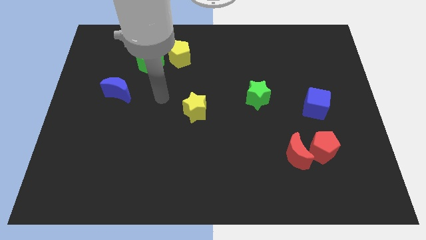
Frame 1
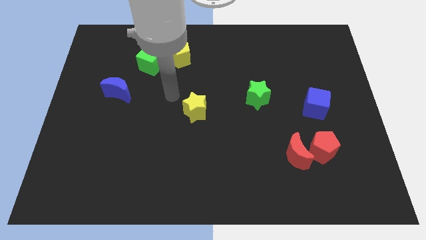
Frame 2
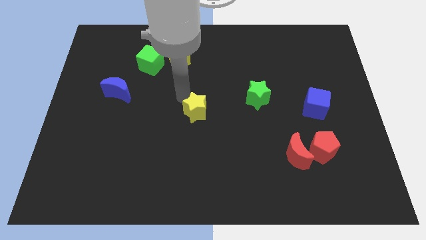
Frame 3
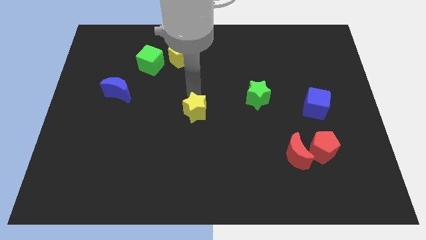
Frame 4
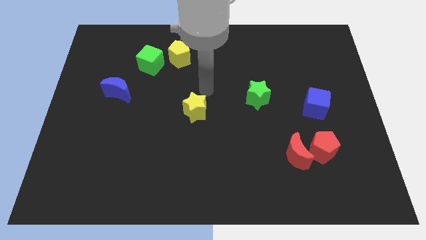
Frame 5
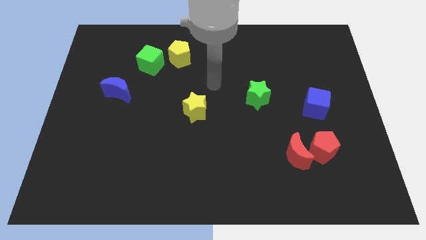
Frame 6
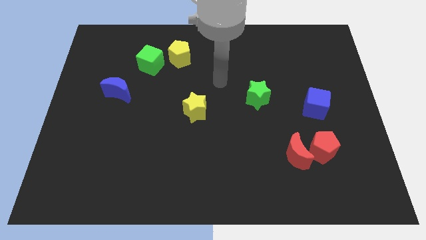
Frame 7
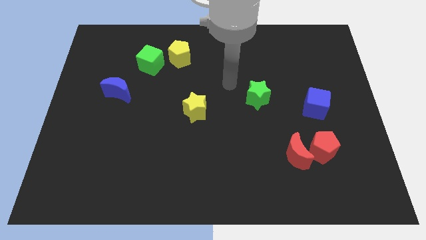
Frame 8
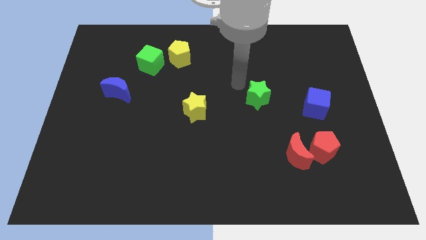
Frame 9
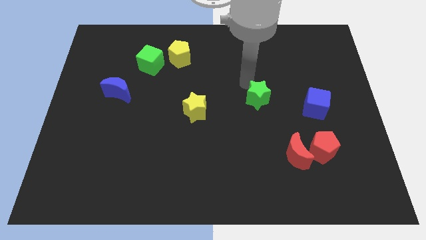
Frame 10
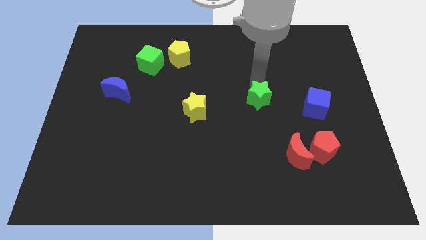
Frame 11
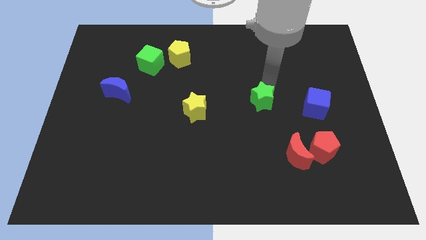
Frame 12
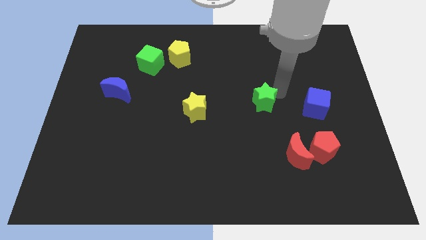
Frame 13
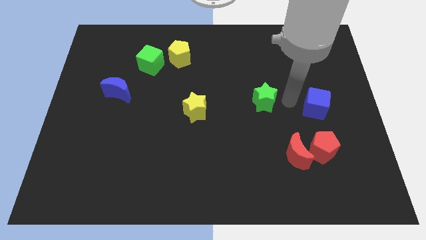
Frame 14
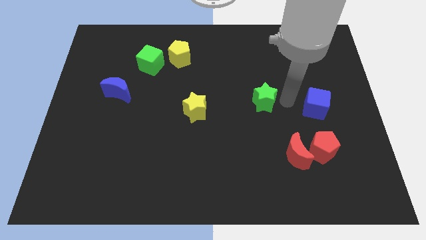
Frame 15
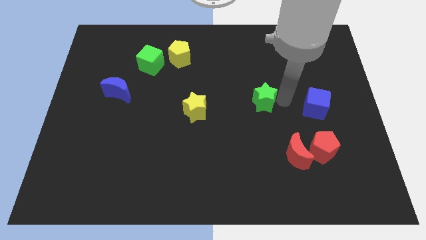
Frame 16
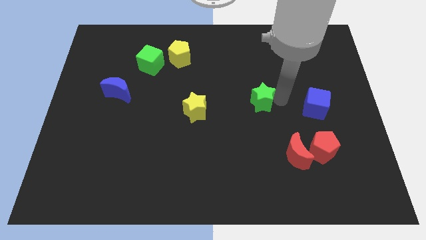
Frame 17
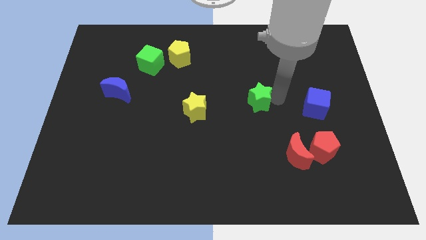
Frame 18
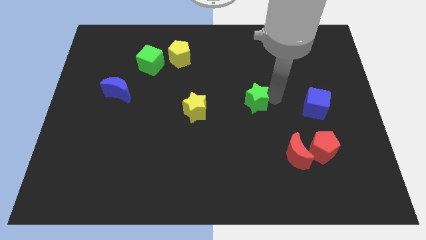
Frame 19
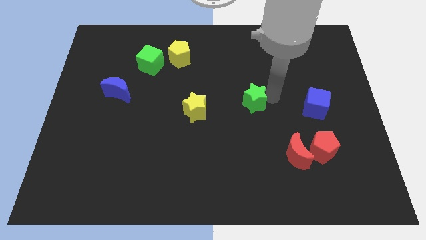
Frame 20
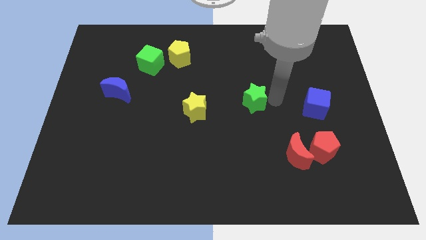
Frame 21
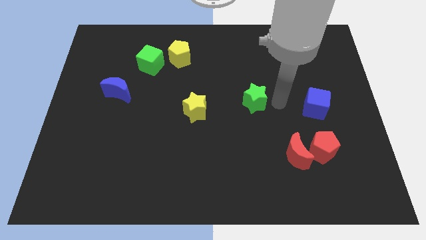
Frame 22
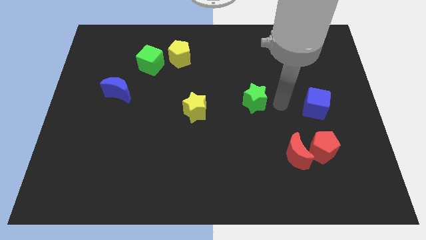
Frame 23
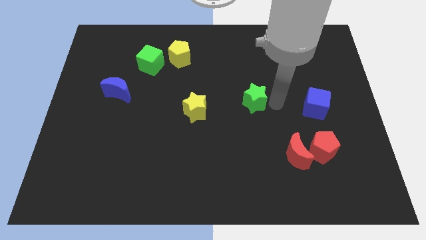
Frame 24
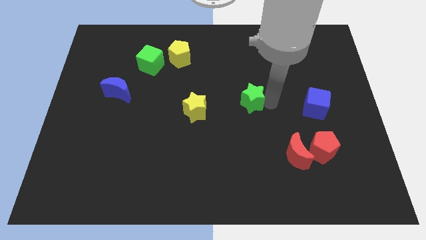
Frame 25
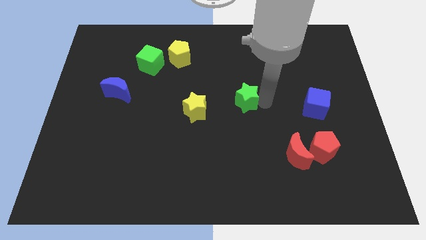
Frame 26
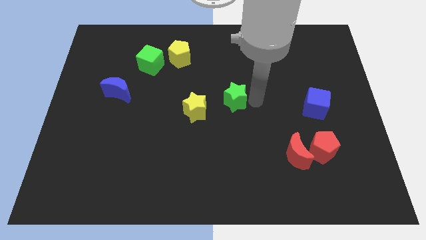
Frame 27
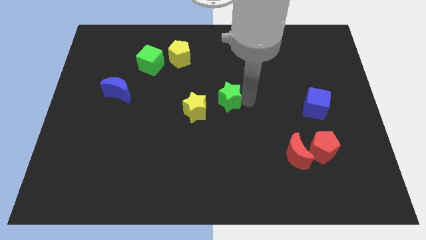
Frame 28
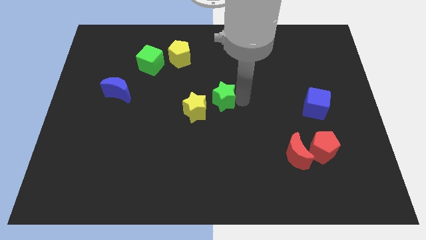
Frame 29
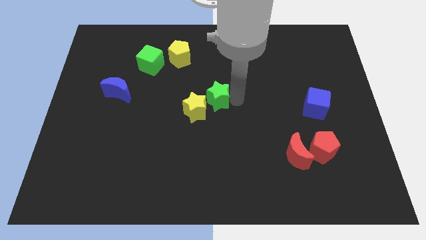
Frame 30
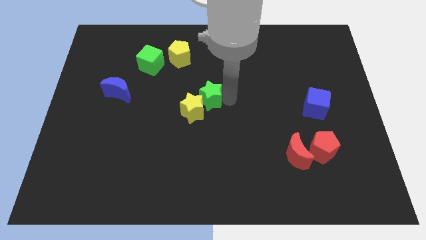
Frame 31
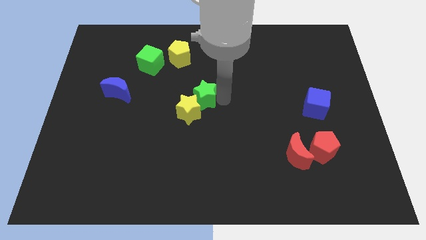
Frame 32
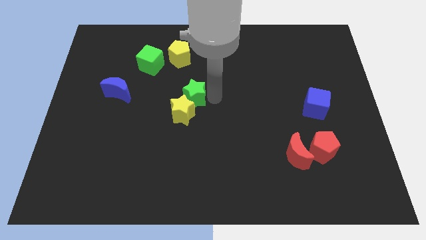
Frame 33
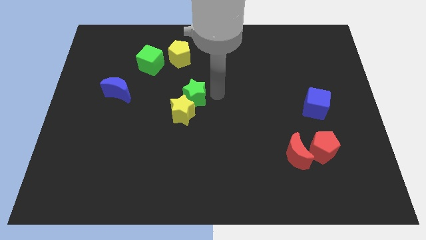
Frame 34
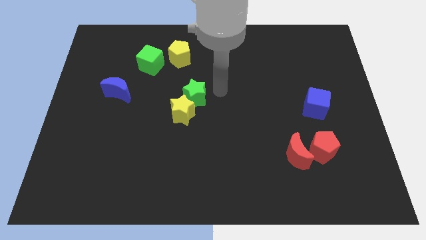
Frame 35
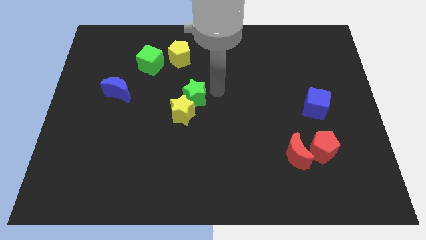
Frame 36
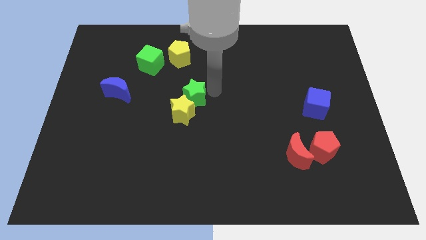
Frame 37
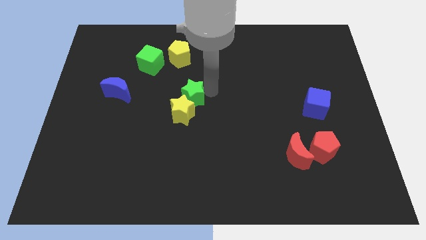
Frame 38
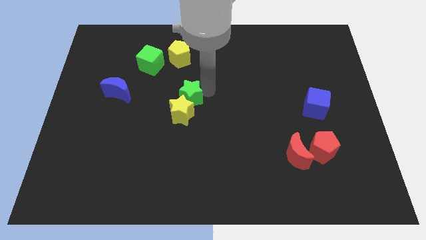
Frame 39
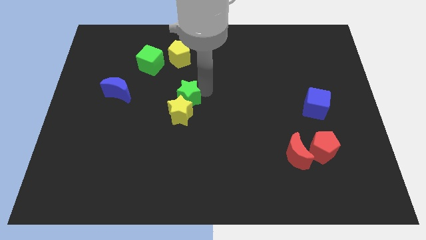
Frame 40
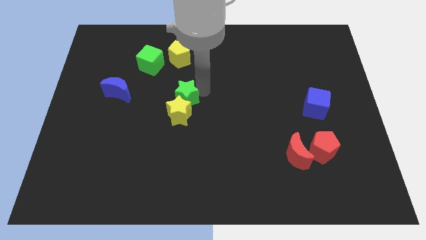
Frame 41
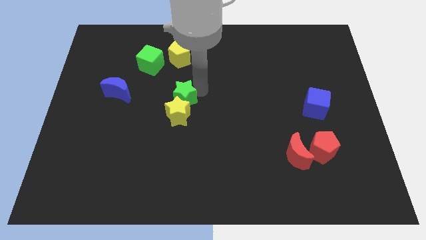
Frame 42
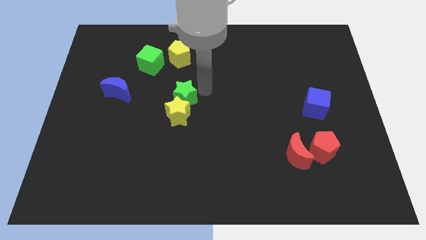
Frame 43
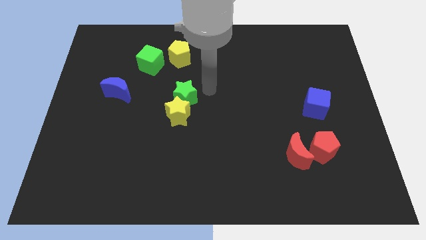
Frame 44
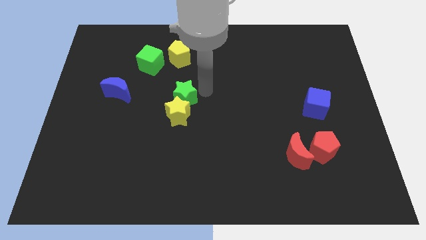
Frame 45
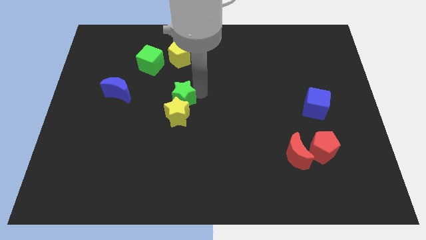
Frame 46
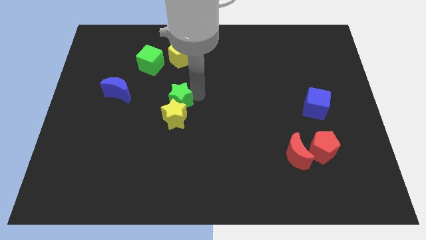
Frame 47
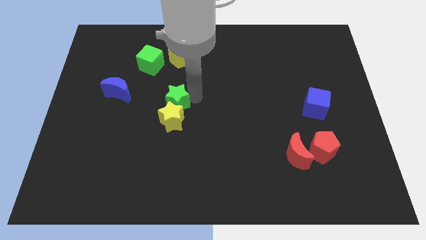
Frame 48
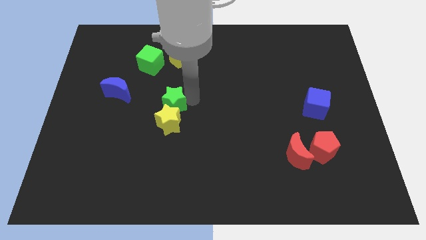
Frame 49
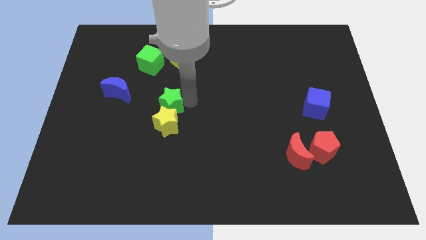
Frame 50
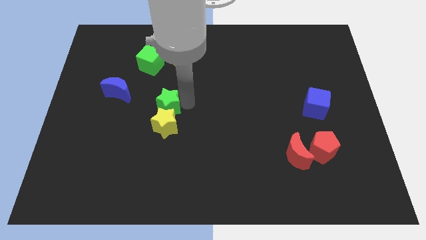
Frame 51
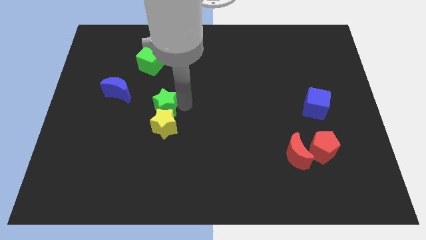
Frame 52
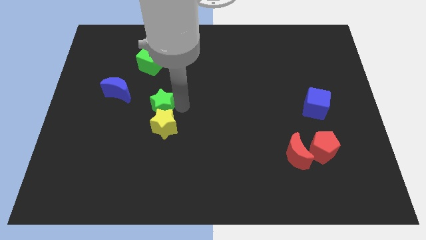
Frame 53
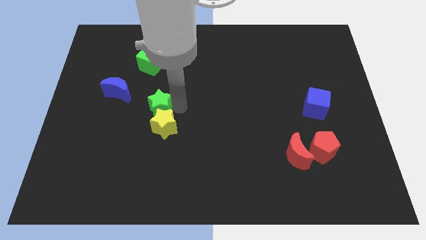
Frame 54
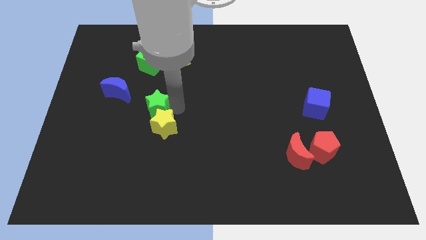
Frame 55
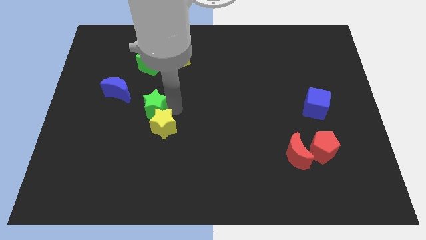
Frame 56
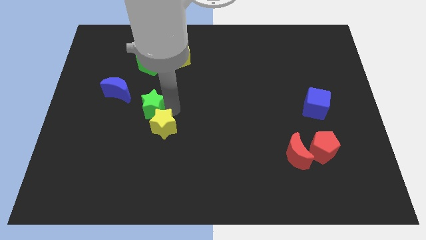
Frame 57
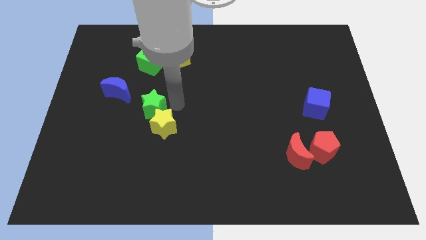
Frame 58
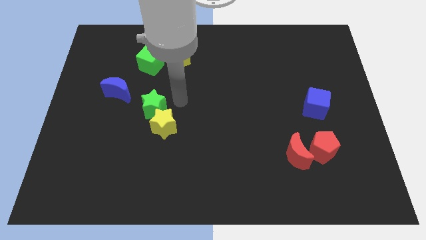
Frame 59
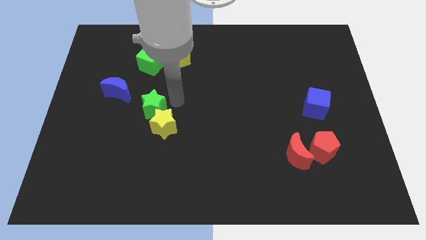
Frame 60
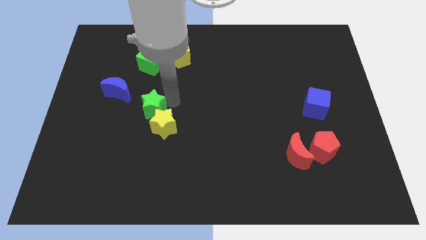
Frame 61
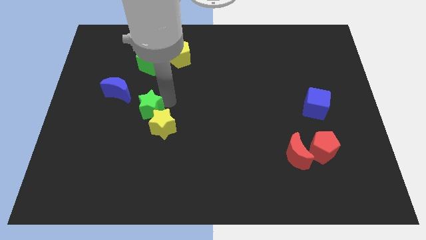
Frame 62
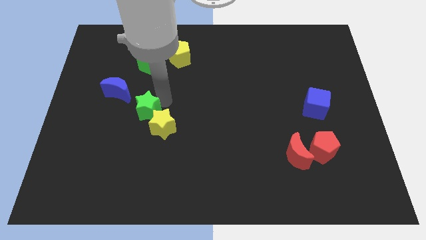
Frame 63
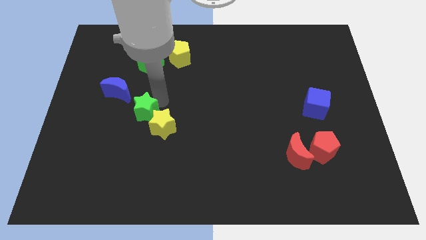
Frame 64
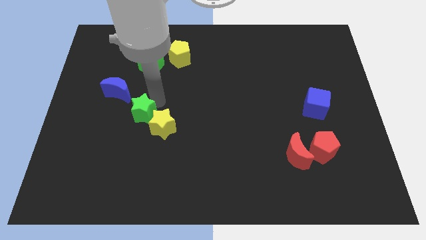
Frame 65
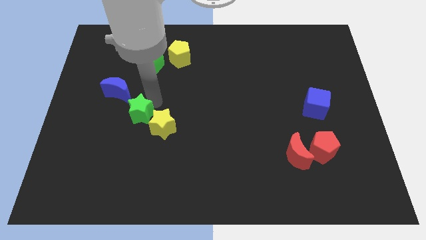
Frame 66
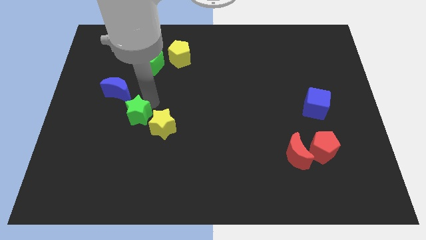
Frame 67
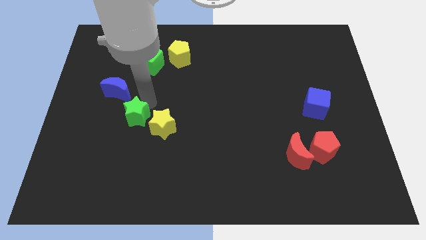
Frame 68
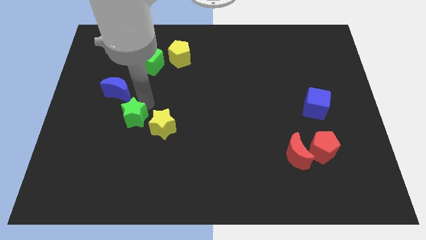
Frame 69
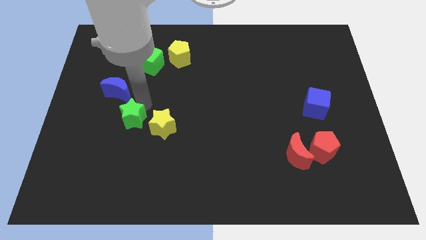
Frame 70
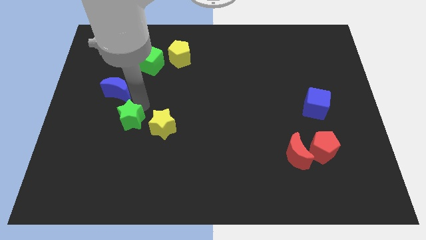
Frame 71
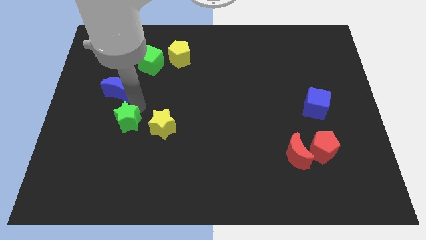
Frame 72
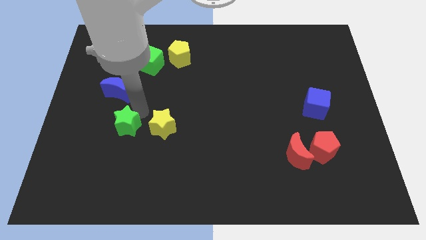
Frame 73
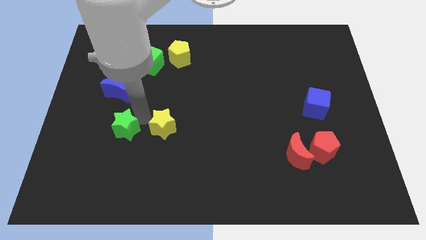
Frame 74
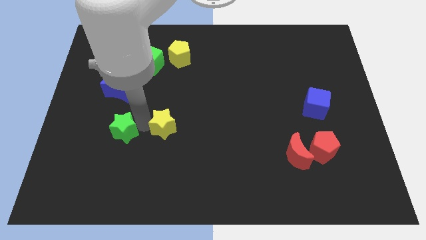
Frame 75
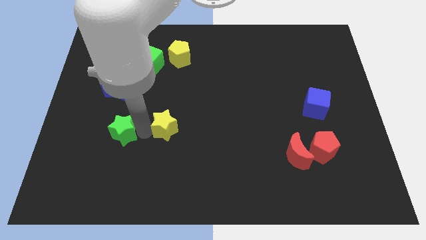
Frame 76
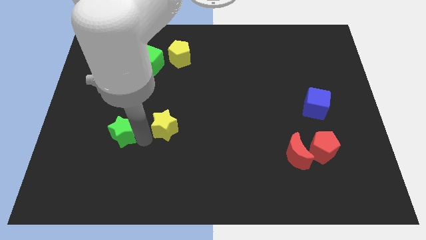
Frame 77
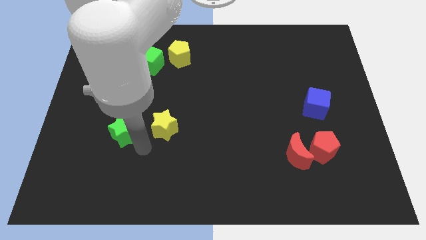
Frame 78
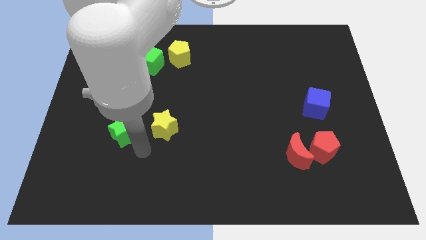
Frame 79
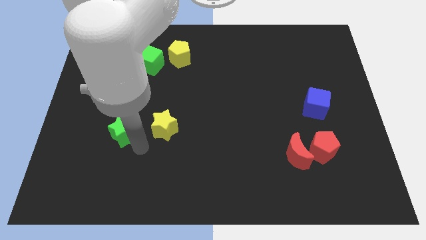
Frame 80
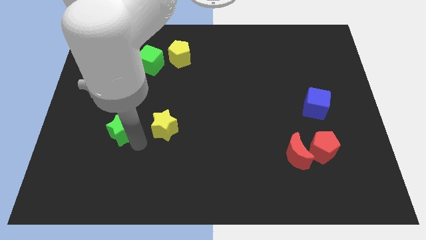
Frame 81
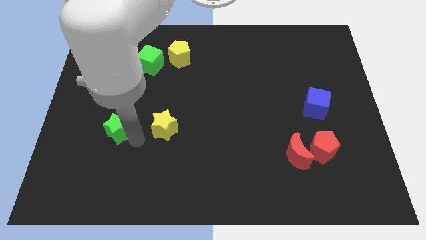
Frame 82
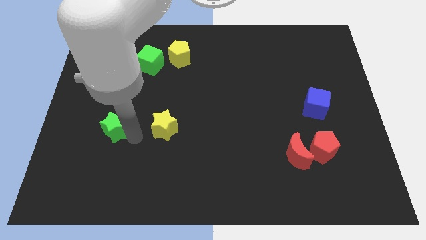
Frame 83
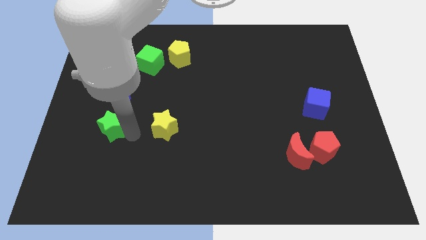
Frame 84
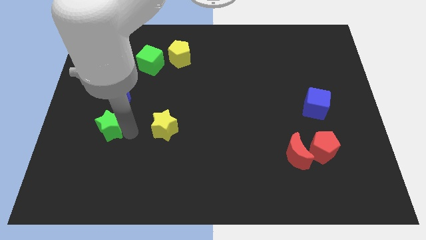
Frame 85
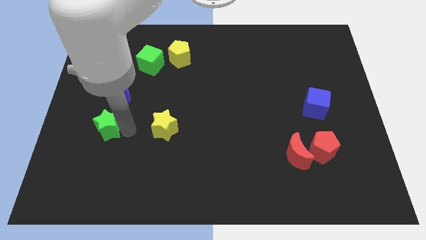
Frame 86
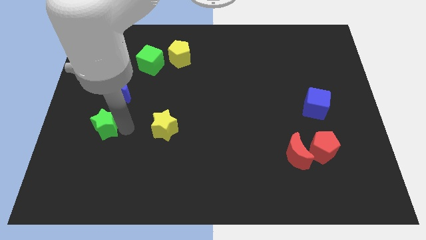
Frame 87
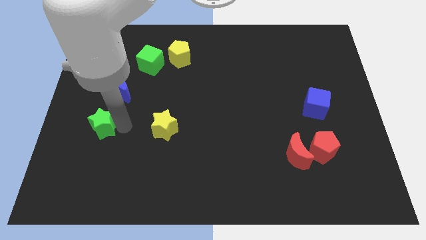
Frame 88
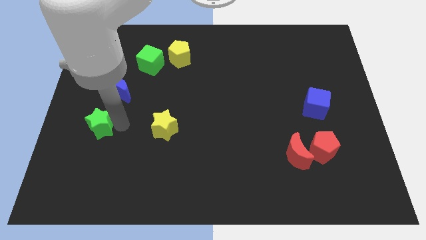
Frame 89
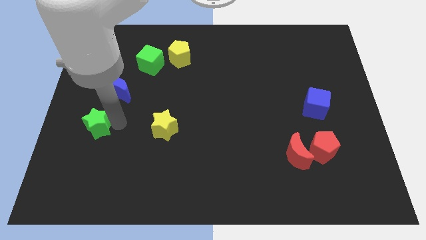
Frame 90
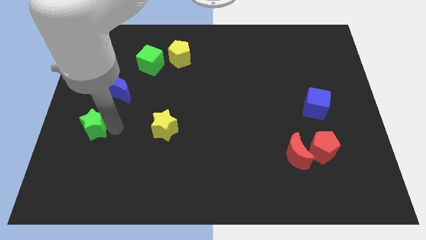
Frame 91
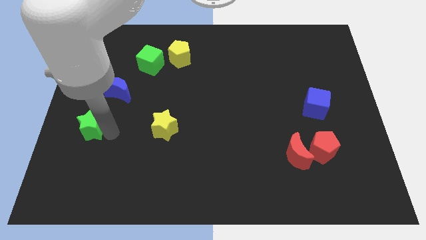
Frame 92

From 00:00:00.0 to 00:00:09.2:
push the green star to the left side
